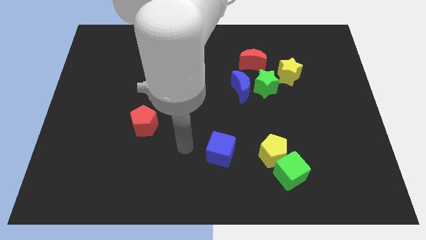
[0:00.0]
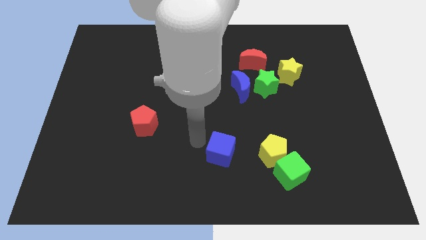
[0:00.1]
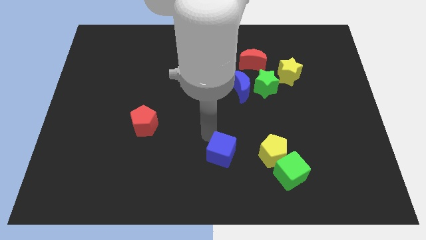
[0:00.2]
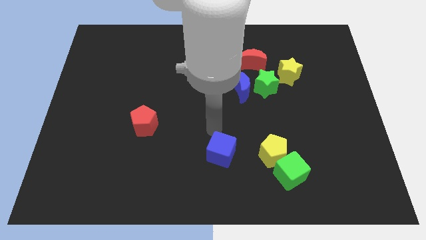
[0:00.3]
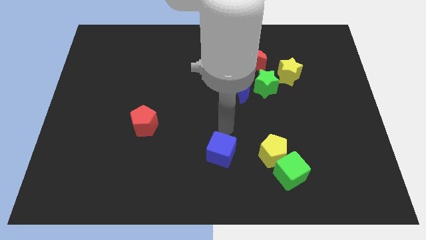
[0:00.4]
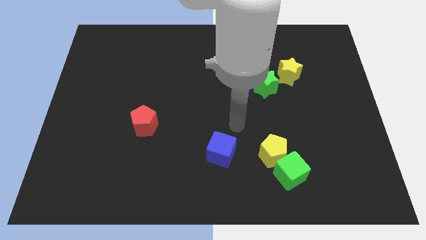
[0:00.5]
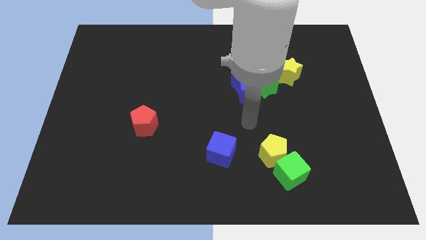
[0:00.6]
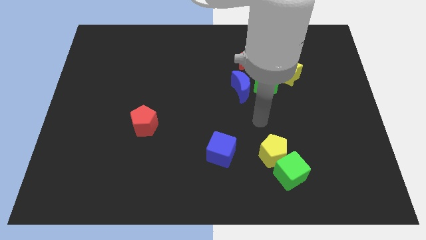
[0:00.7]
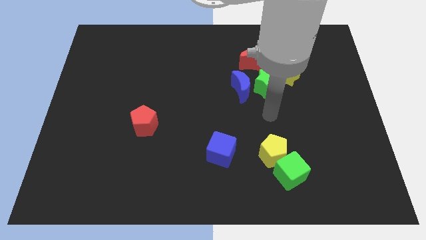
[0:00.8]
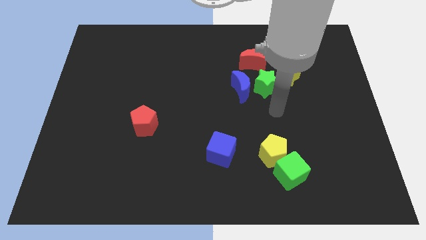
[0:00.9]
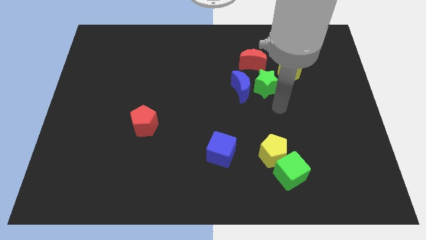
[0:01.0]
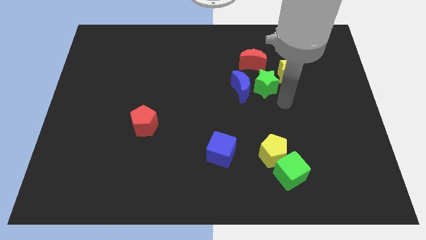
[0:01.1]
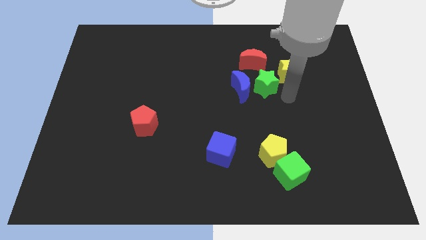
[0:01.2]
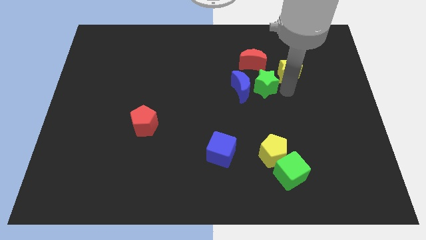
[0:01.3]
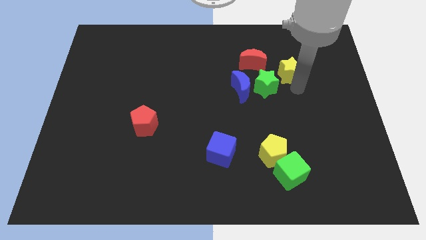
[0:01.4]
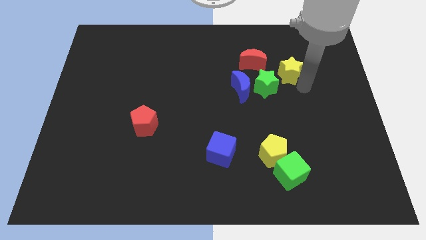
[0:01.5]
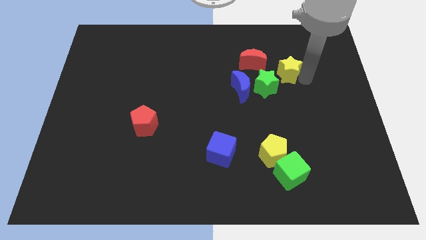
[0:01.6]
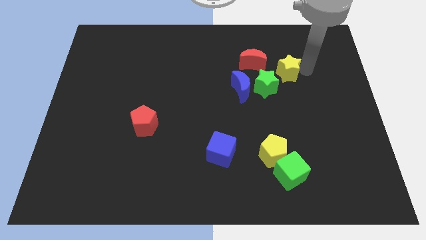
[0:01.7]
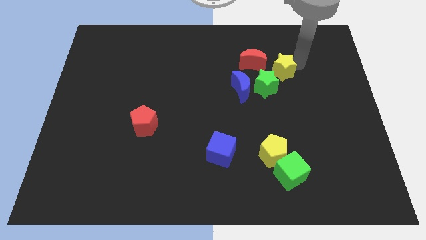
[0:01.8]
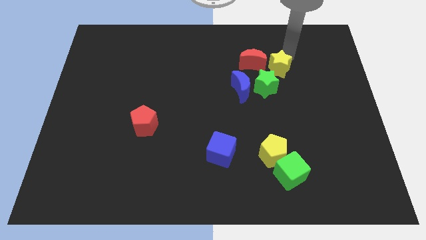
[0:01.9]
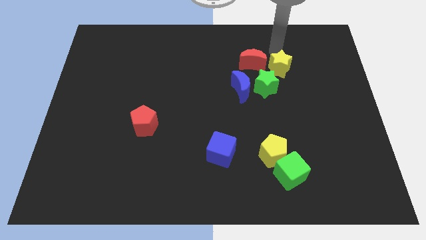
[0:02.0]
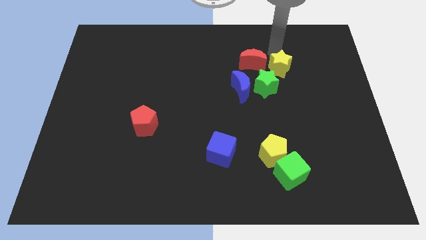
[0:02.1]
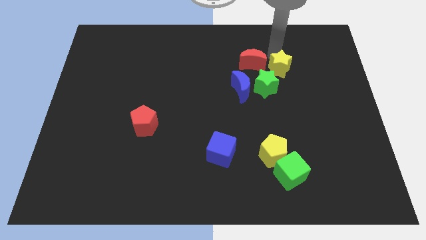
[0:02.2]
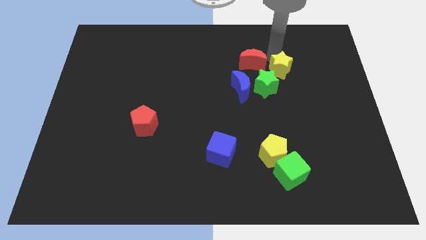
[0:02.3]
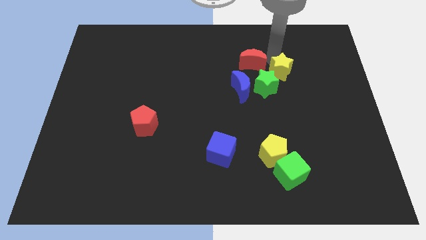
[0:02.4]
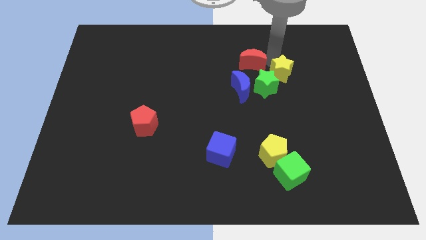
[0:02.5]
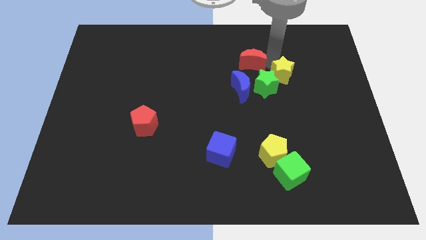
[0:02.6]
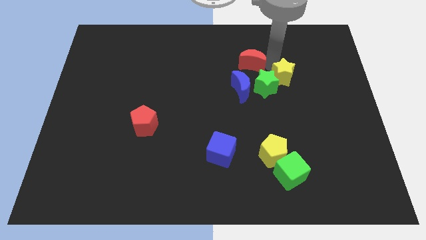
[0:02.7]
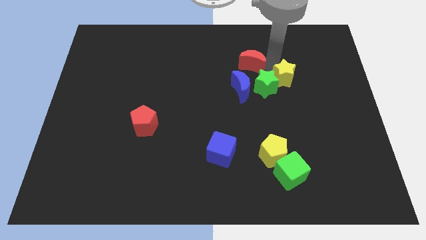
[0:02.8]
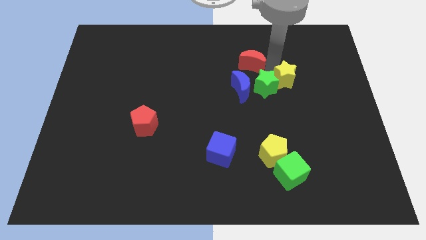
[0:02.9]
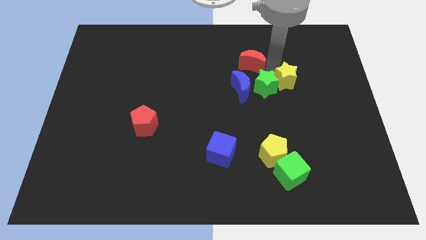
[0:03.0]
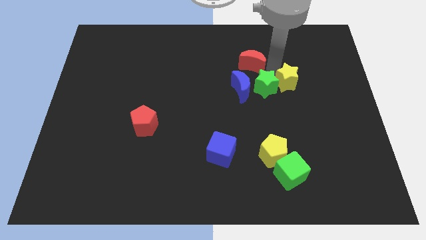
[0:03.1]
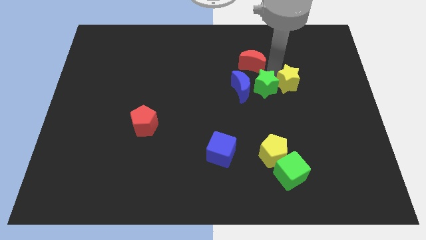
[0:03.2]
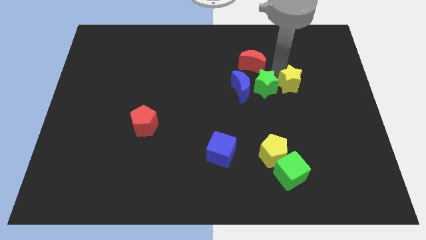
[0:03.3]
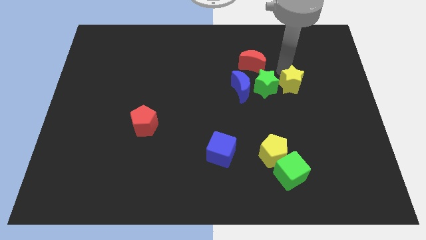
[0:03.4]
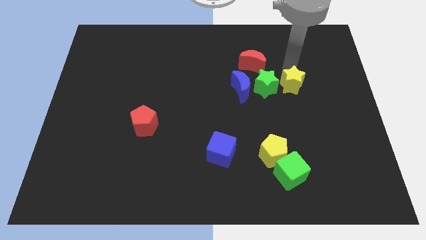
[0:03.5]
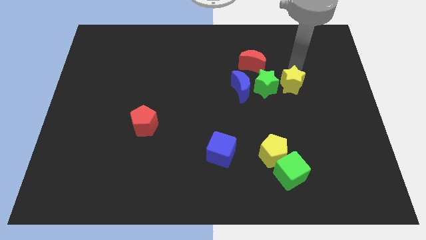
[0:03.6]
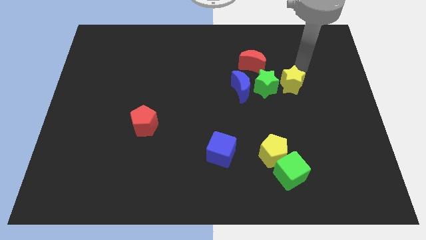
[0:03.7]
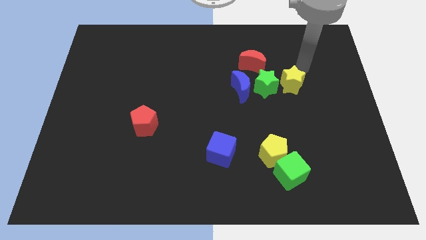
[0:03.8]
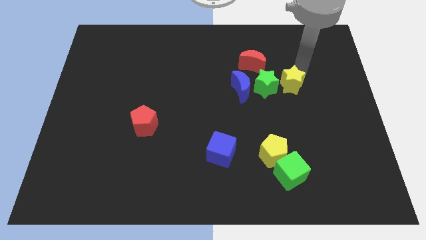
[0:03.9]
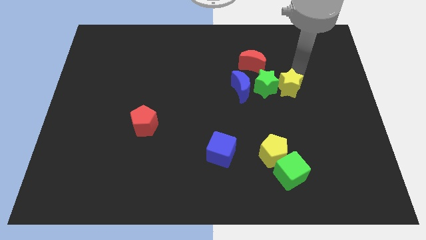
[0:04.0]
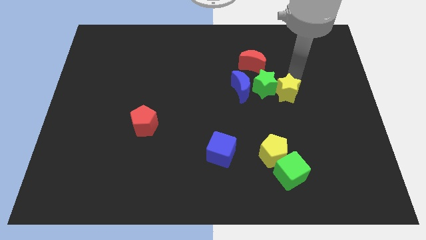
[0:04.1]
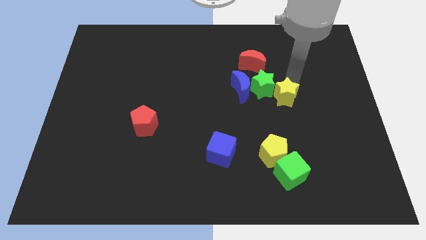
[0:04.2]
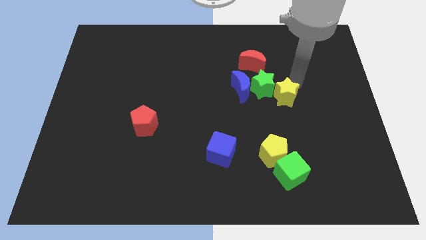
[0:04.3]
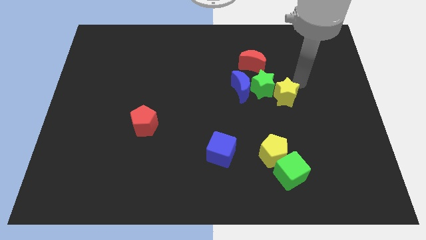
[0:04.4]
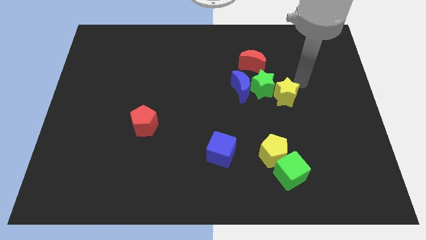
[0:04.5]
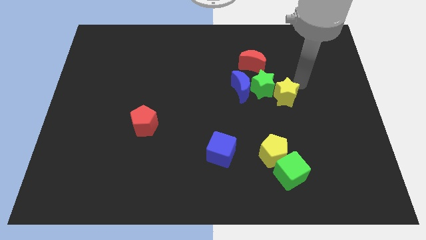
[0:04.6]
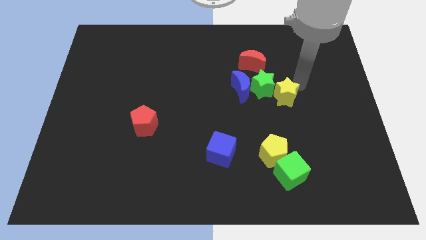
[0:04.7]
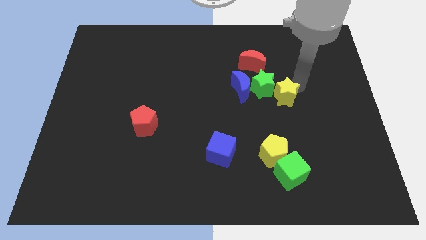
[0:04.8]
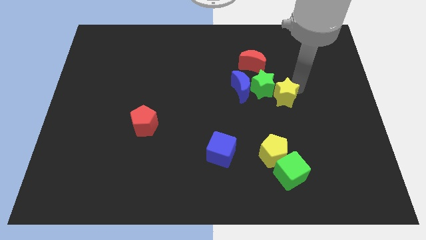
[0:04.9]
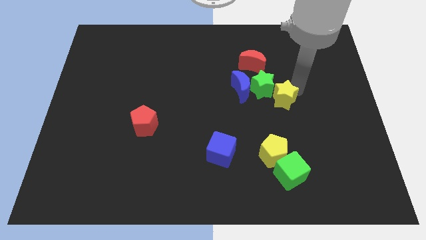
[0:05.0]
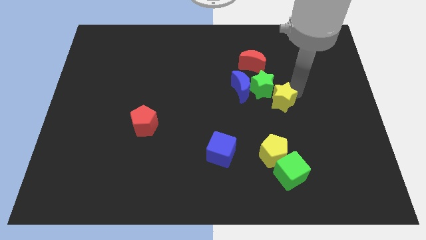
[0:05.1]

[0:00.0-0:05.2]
slightly slide the yellow star downwards and to the left

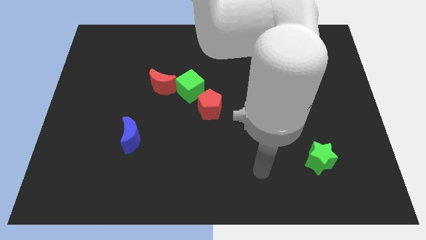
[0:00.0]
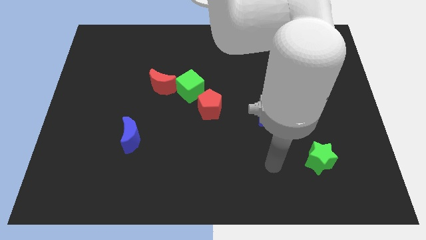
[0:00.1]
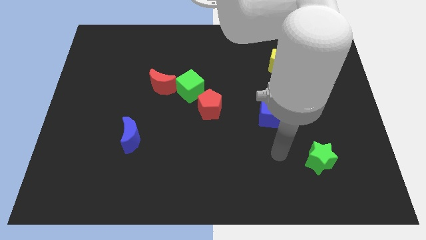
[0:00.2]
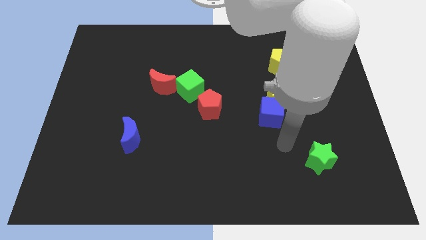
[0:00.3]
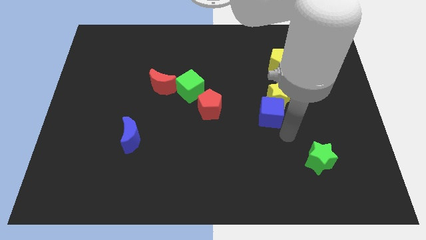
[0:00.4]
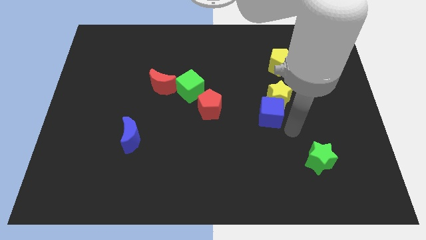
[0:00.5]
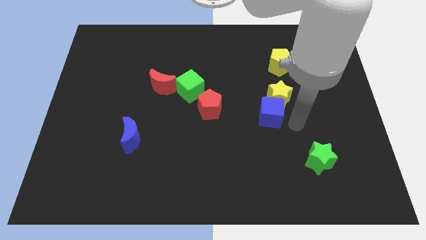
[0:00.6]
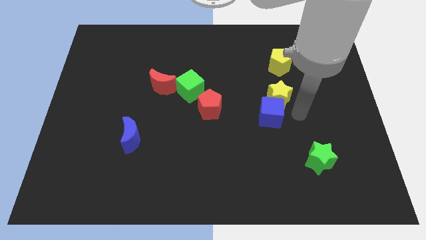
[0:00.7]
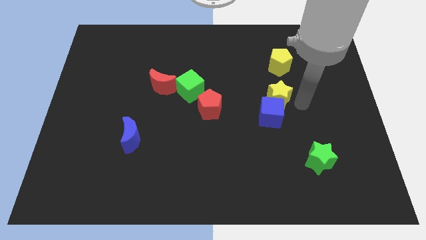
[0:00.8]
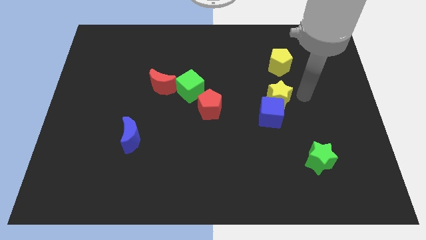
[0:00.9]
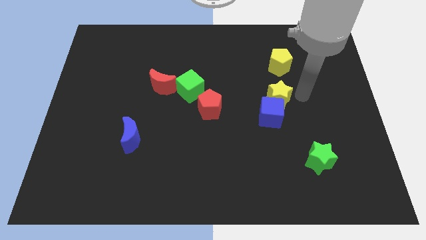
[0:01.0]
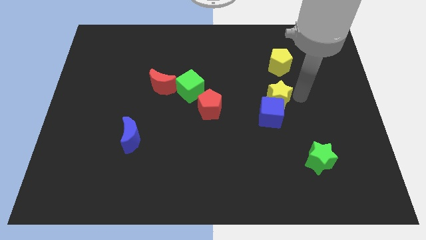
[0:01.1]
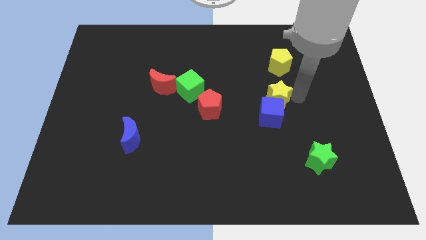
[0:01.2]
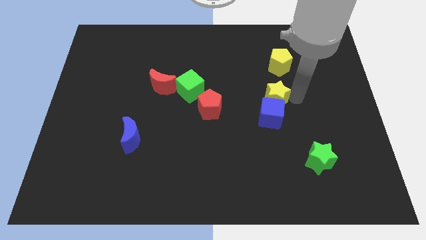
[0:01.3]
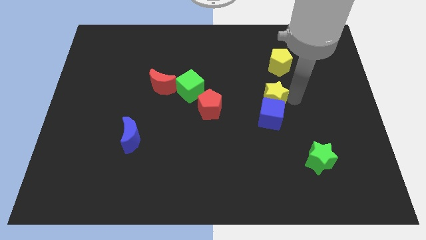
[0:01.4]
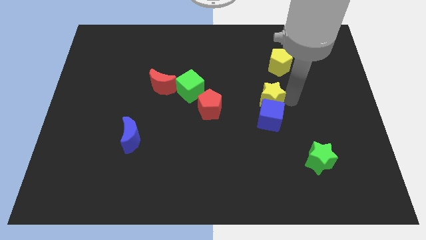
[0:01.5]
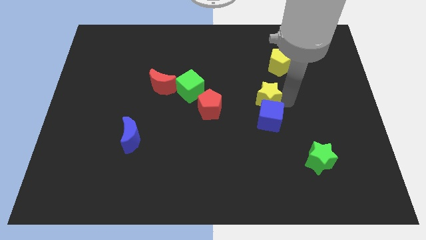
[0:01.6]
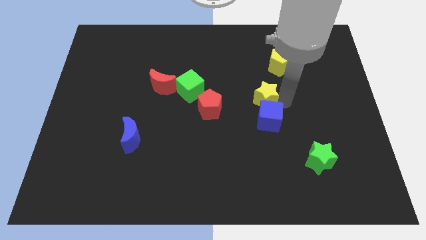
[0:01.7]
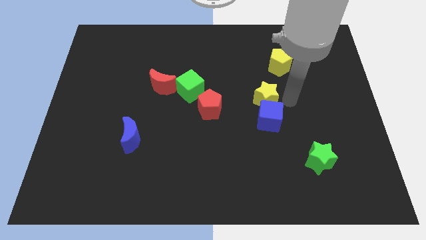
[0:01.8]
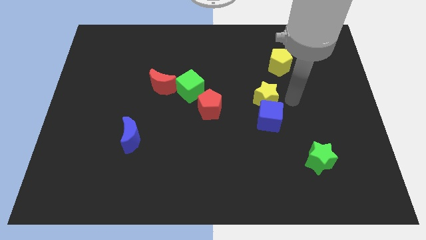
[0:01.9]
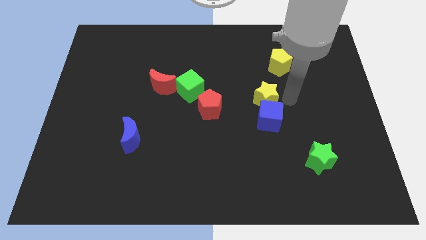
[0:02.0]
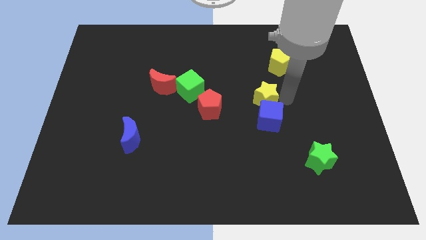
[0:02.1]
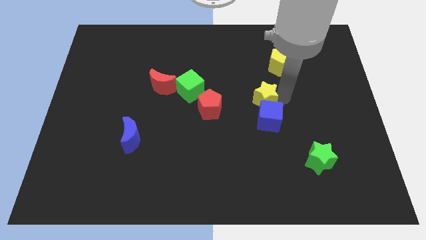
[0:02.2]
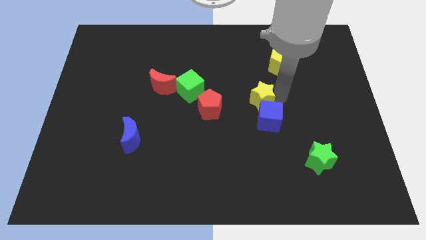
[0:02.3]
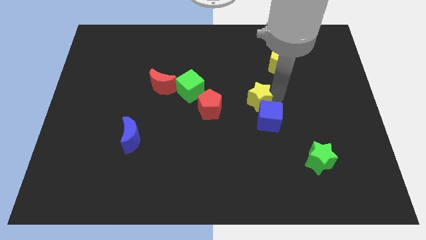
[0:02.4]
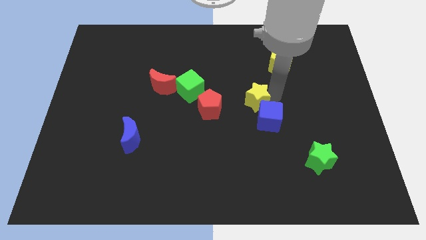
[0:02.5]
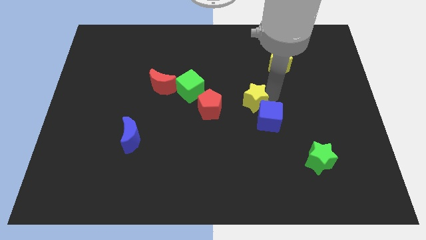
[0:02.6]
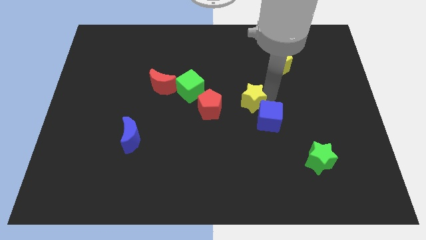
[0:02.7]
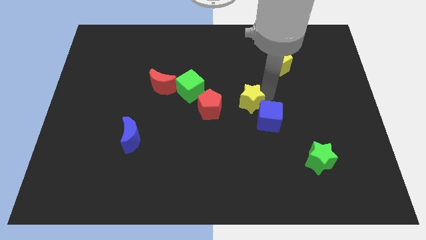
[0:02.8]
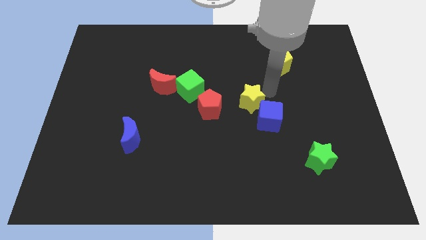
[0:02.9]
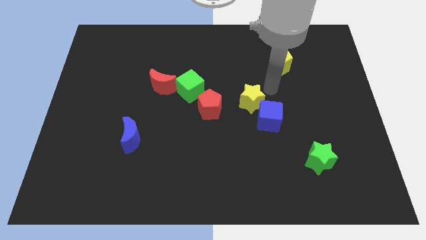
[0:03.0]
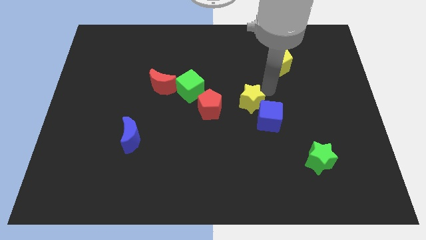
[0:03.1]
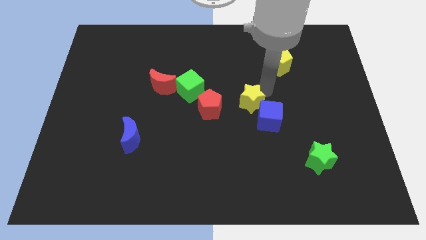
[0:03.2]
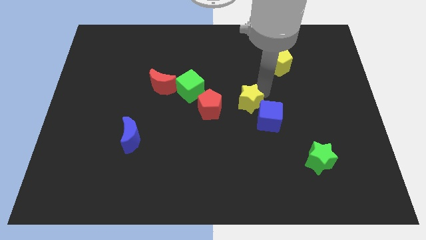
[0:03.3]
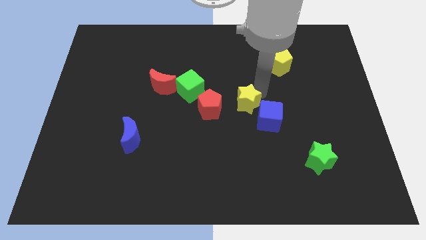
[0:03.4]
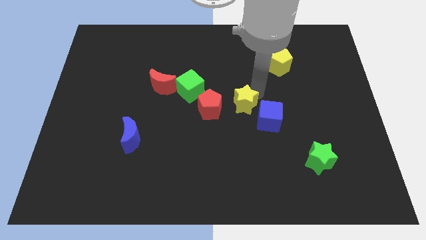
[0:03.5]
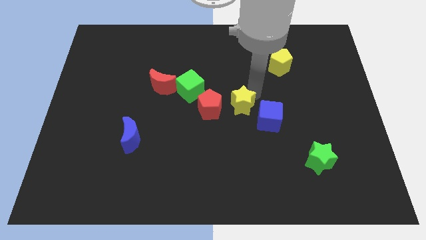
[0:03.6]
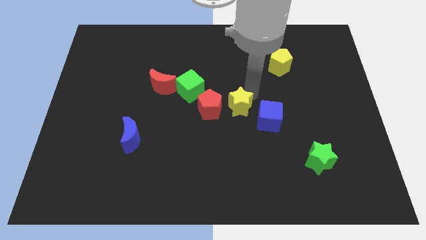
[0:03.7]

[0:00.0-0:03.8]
slightly slide the yellow star diagonally down and to the left
